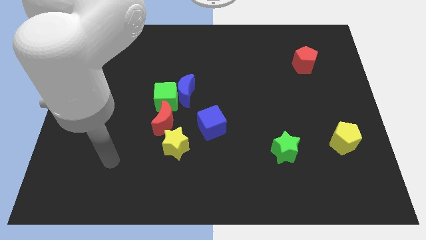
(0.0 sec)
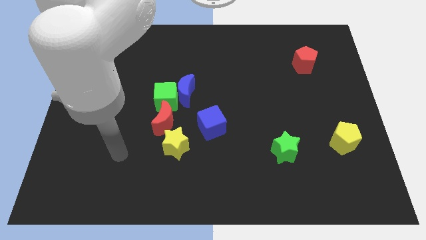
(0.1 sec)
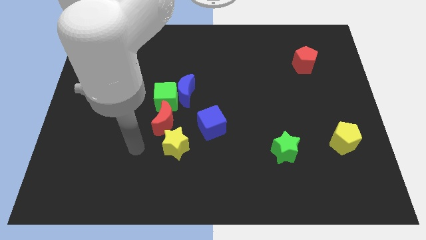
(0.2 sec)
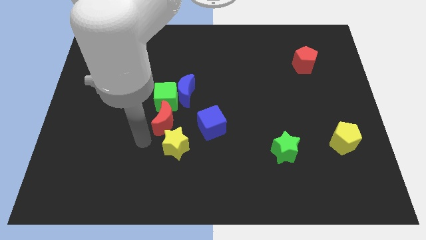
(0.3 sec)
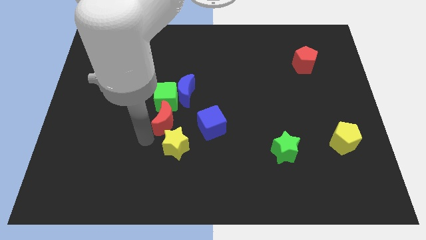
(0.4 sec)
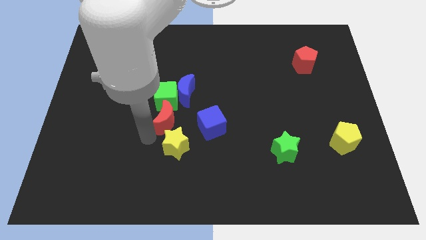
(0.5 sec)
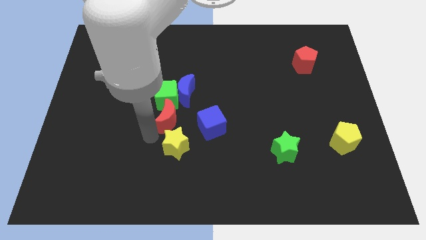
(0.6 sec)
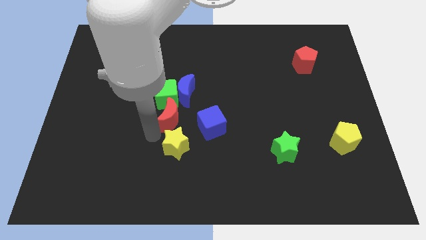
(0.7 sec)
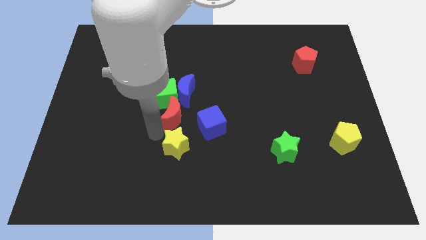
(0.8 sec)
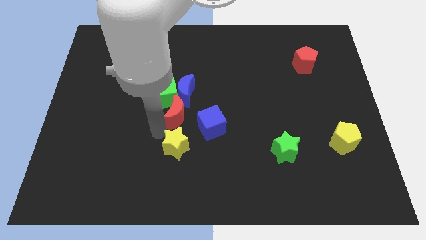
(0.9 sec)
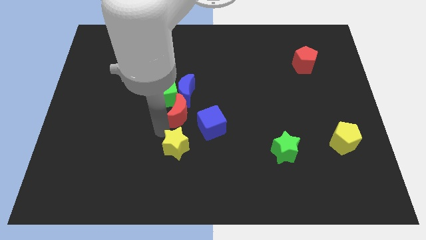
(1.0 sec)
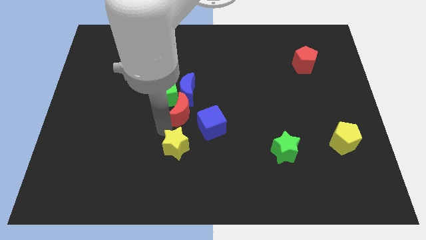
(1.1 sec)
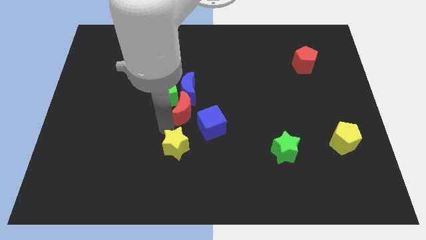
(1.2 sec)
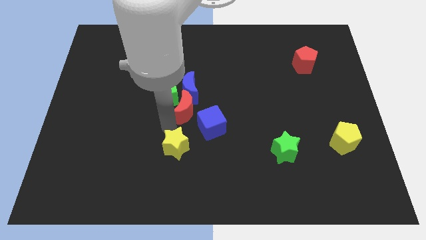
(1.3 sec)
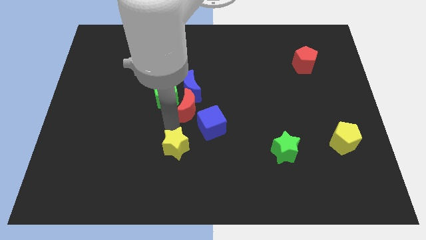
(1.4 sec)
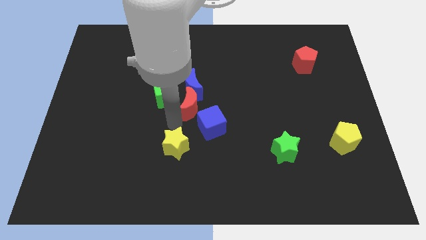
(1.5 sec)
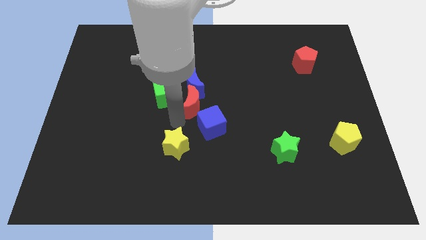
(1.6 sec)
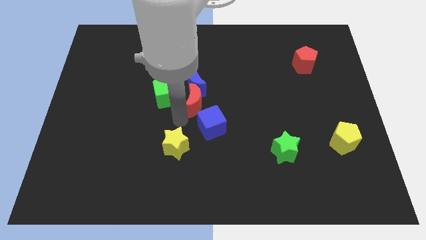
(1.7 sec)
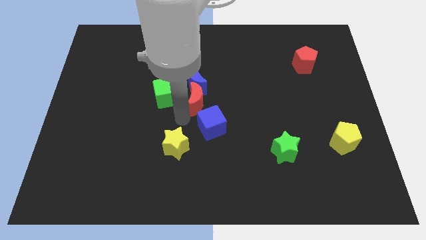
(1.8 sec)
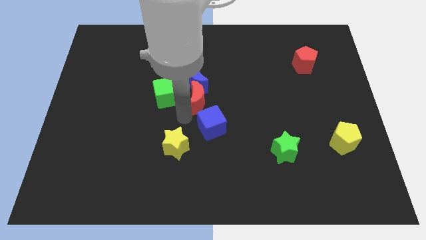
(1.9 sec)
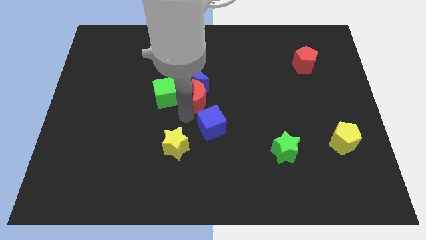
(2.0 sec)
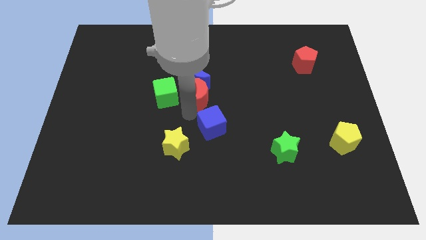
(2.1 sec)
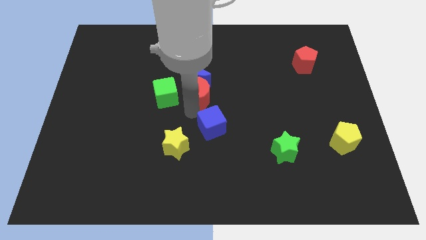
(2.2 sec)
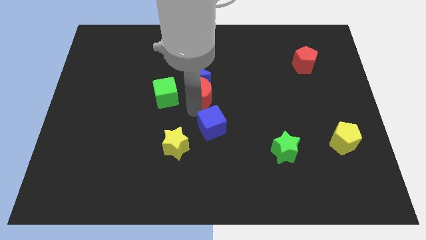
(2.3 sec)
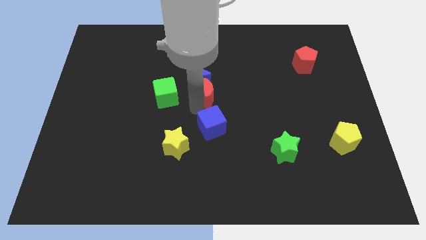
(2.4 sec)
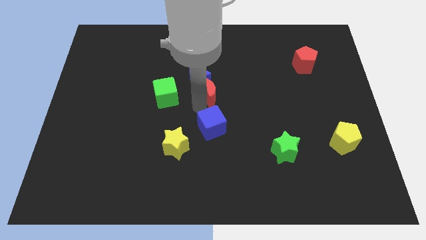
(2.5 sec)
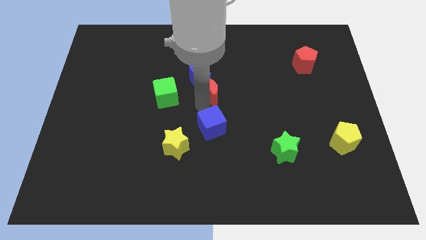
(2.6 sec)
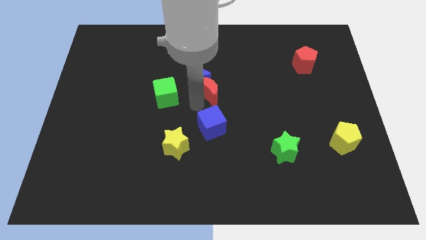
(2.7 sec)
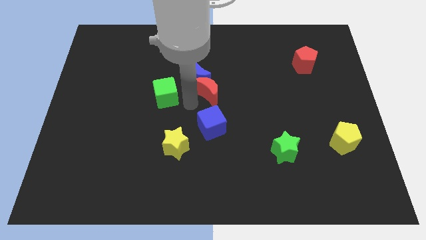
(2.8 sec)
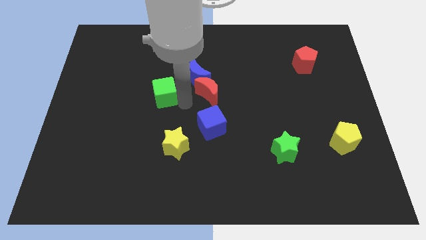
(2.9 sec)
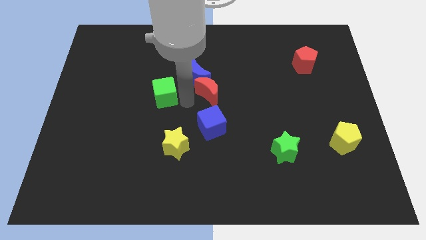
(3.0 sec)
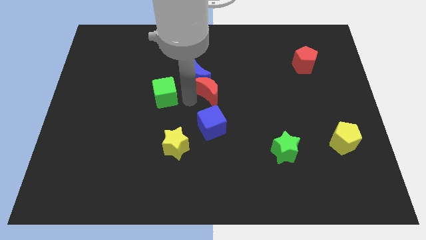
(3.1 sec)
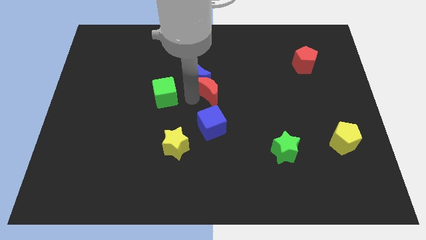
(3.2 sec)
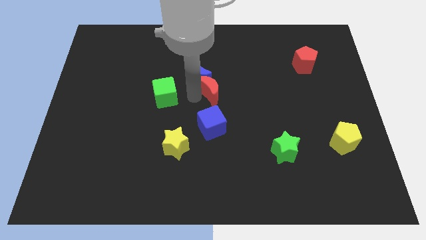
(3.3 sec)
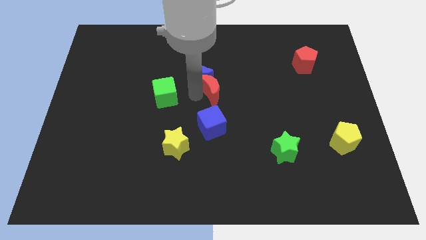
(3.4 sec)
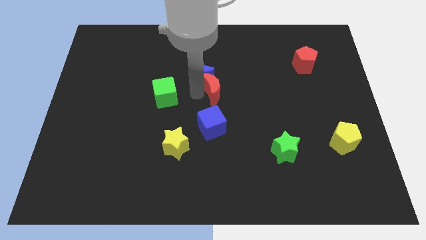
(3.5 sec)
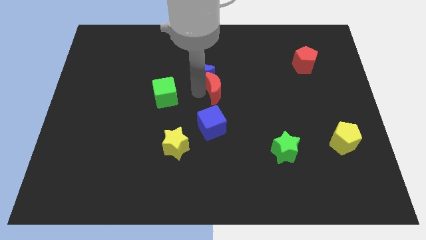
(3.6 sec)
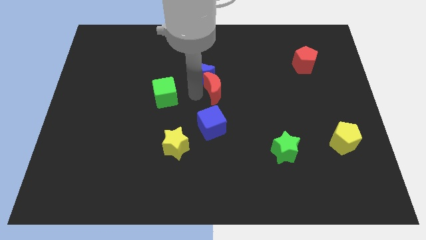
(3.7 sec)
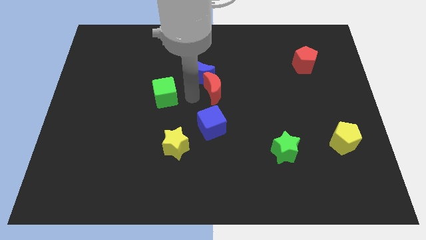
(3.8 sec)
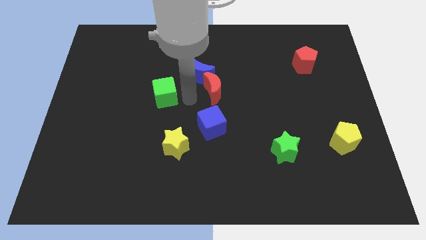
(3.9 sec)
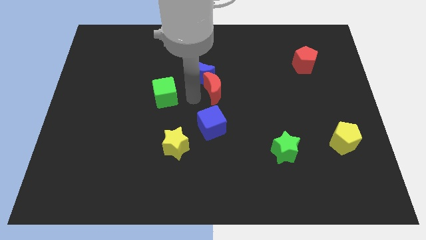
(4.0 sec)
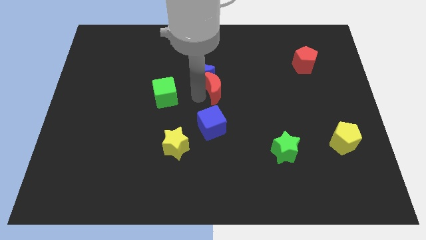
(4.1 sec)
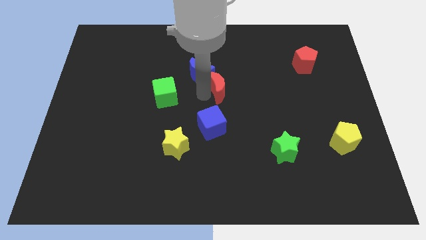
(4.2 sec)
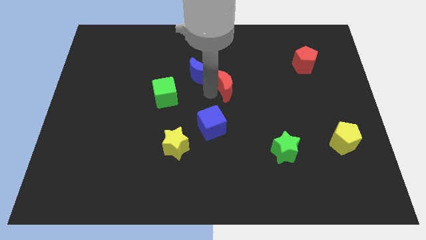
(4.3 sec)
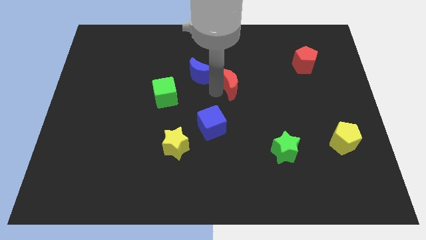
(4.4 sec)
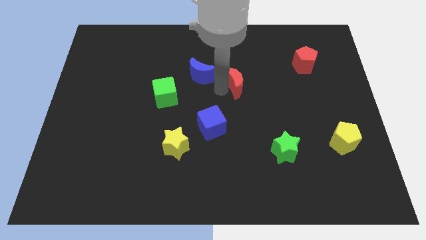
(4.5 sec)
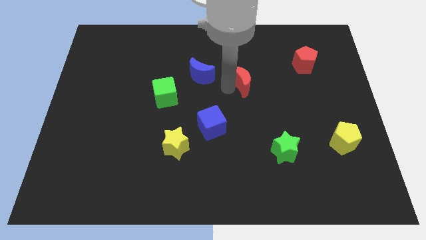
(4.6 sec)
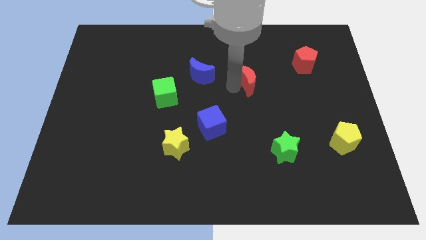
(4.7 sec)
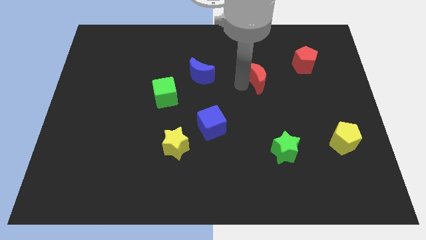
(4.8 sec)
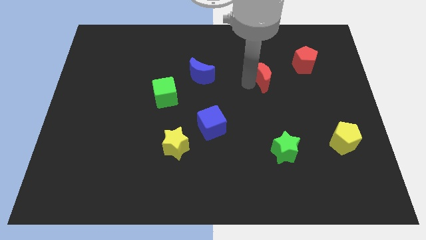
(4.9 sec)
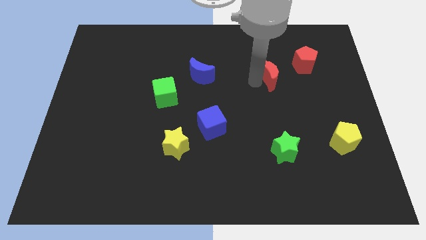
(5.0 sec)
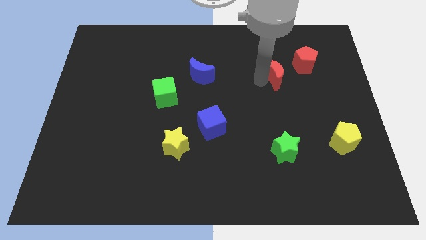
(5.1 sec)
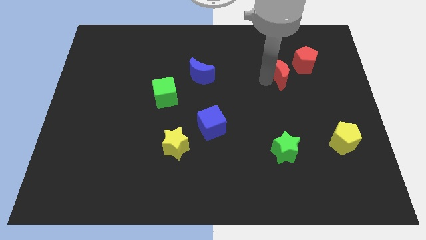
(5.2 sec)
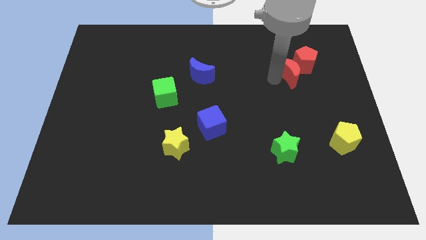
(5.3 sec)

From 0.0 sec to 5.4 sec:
push the red moon next to the red pentagon

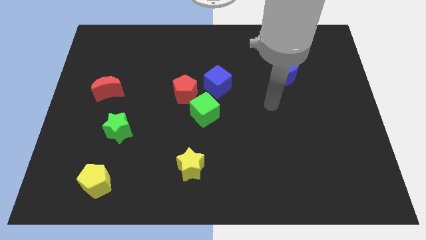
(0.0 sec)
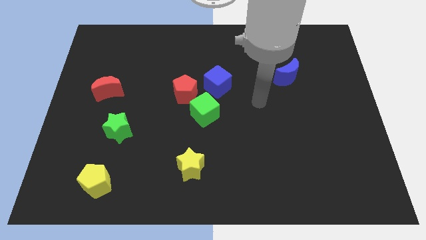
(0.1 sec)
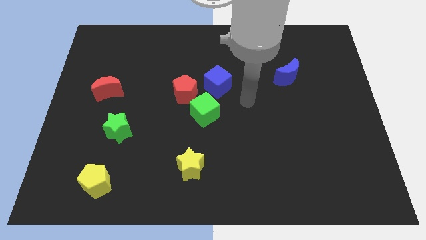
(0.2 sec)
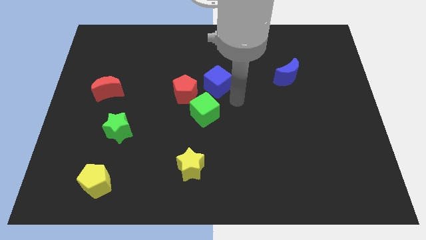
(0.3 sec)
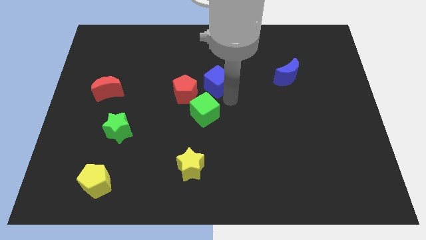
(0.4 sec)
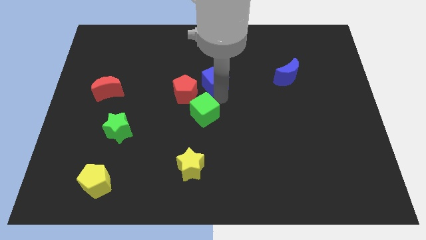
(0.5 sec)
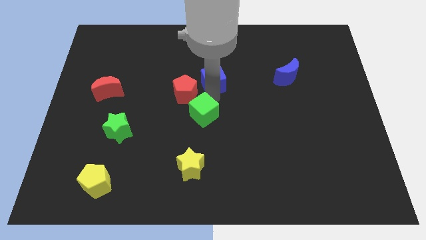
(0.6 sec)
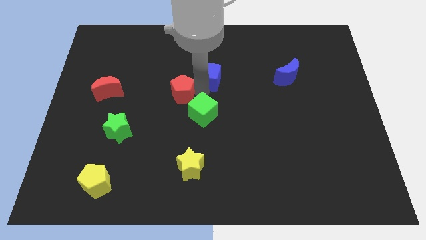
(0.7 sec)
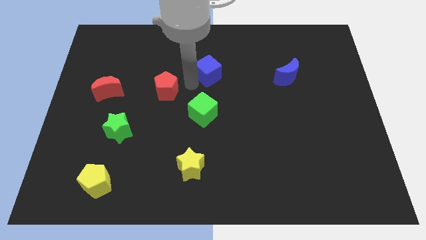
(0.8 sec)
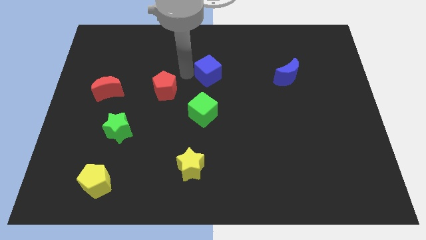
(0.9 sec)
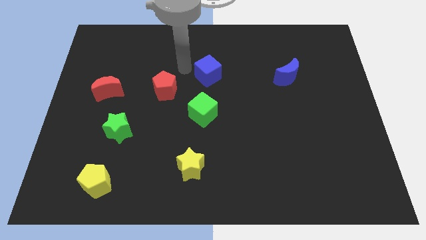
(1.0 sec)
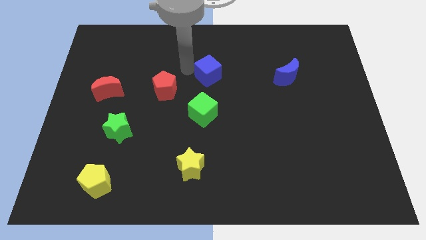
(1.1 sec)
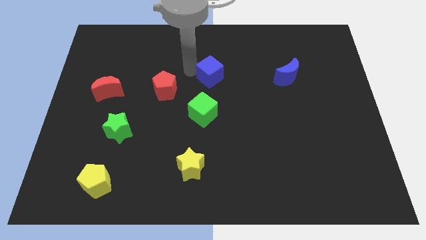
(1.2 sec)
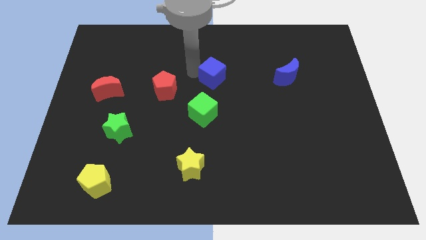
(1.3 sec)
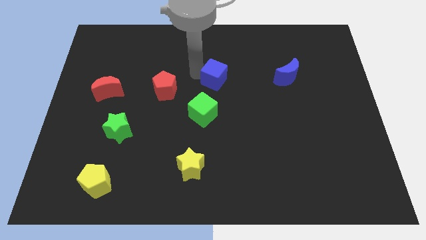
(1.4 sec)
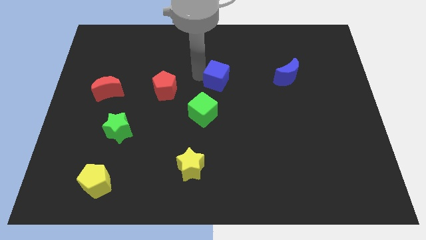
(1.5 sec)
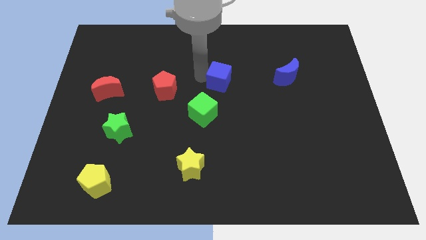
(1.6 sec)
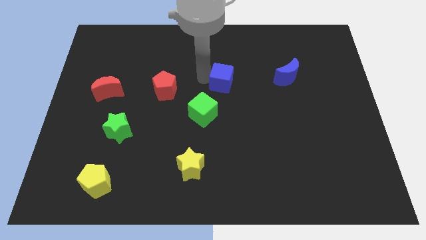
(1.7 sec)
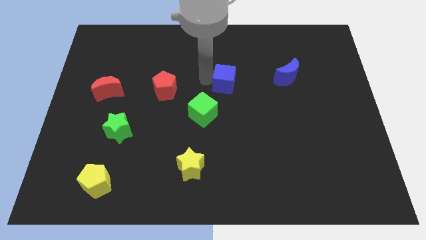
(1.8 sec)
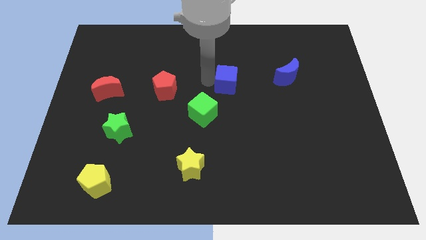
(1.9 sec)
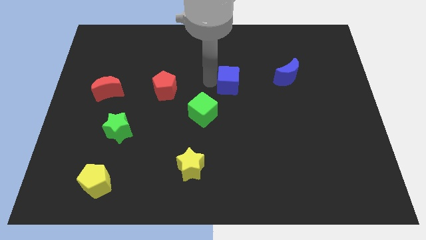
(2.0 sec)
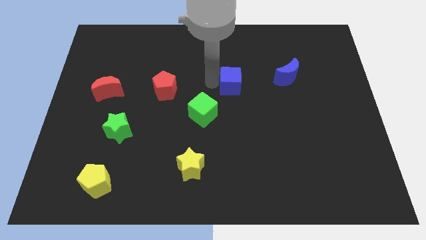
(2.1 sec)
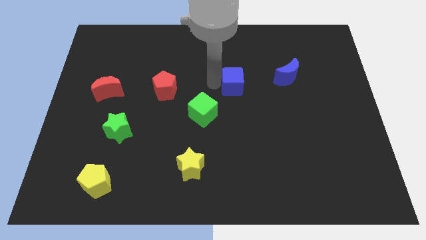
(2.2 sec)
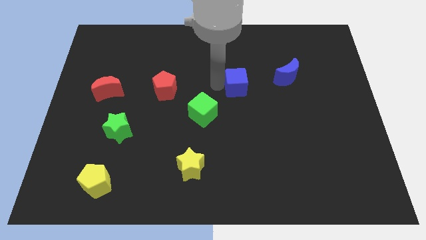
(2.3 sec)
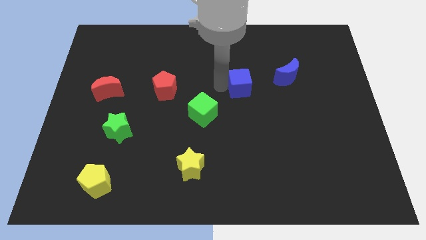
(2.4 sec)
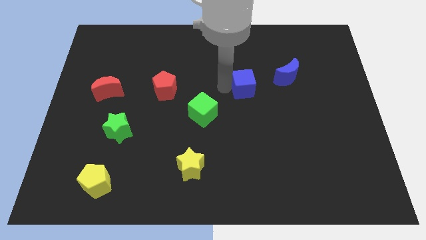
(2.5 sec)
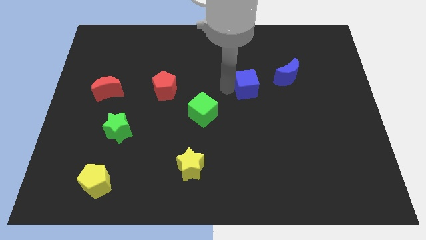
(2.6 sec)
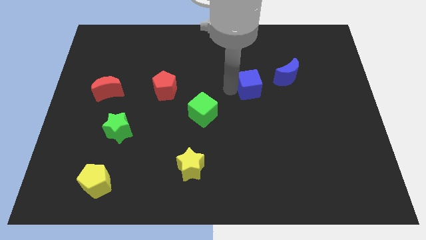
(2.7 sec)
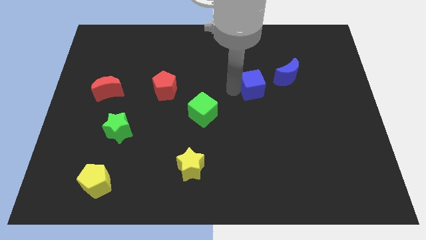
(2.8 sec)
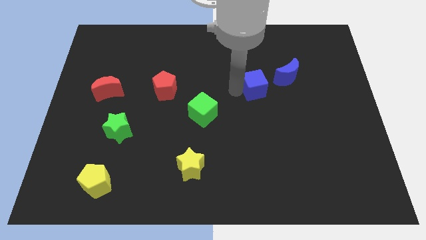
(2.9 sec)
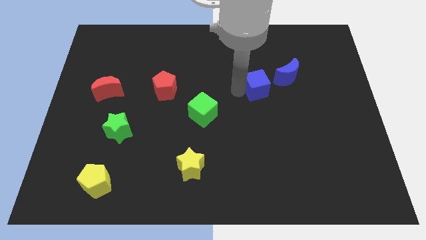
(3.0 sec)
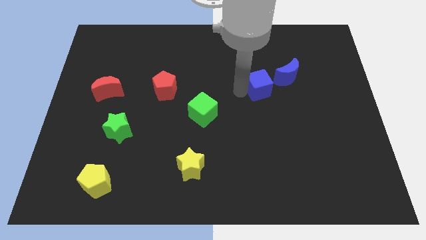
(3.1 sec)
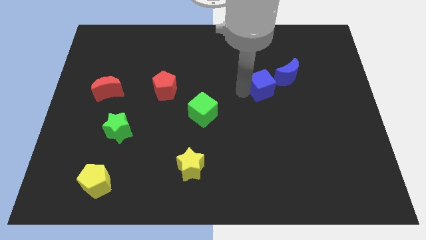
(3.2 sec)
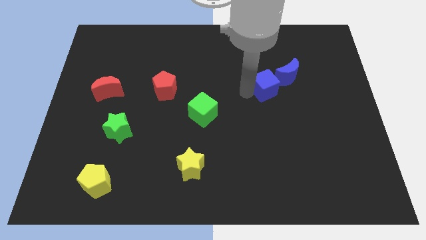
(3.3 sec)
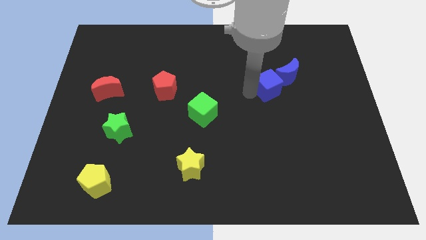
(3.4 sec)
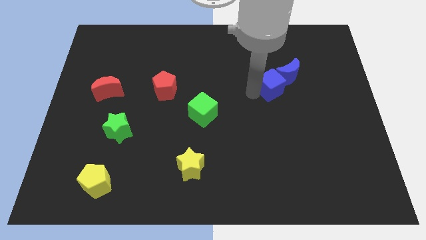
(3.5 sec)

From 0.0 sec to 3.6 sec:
push the blue cube close to the blue moon
